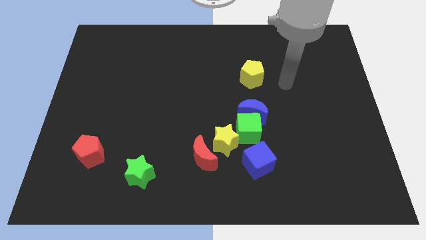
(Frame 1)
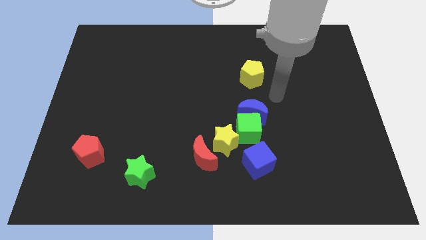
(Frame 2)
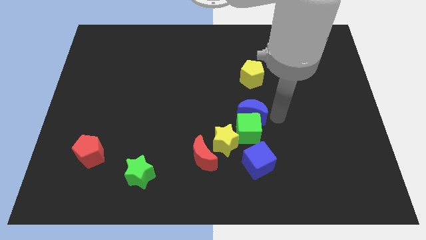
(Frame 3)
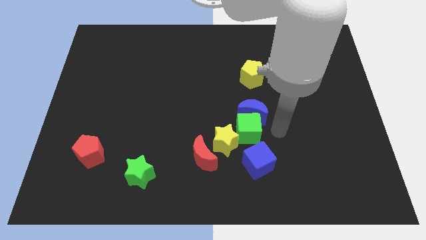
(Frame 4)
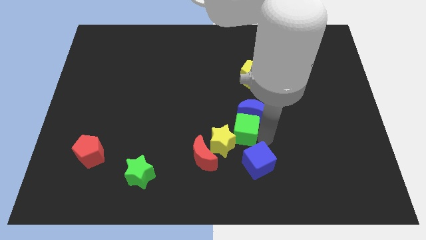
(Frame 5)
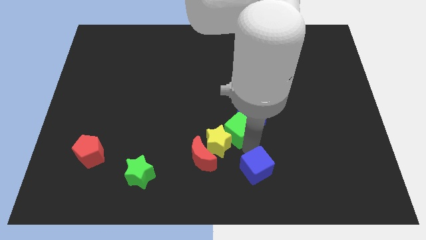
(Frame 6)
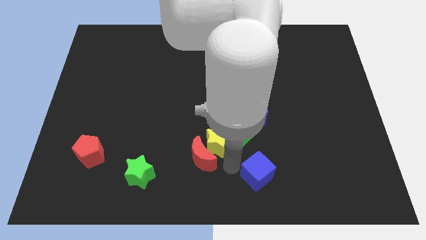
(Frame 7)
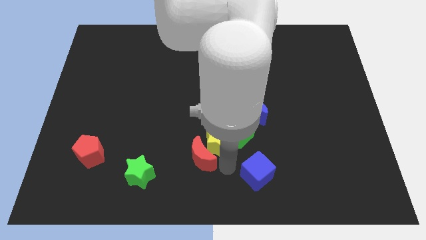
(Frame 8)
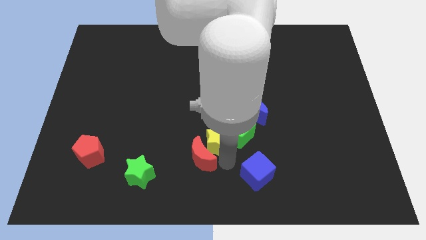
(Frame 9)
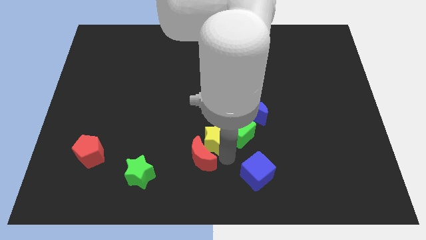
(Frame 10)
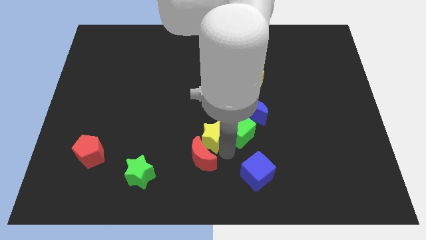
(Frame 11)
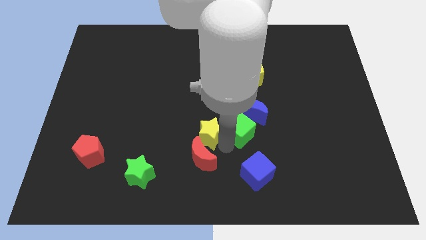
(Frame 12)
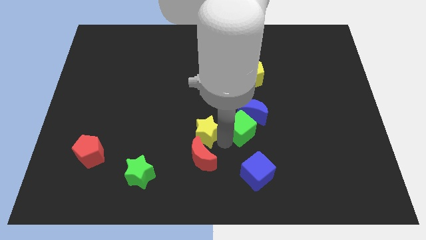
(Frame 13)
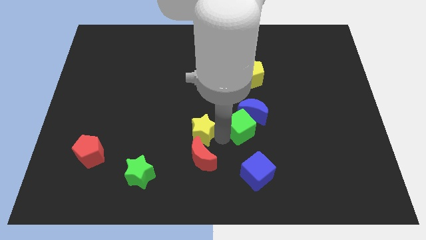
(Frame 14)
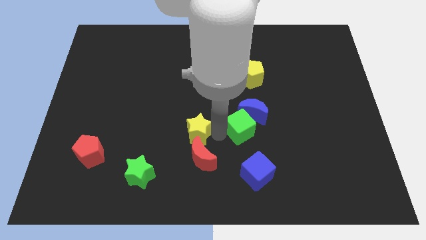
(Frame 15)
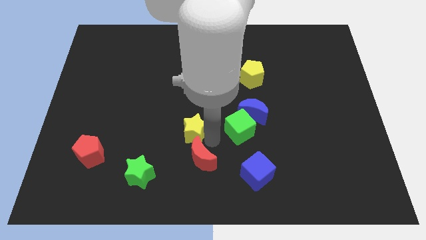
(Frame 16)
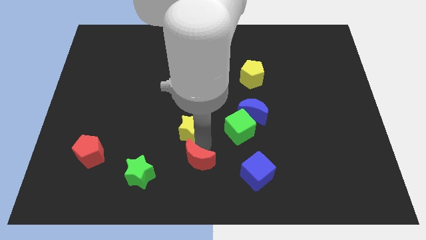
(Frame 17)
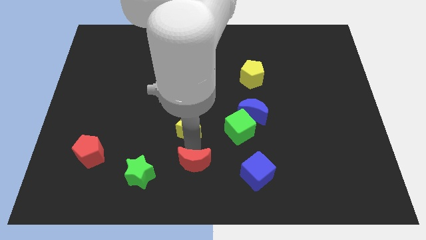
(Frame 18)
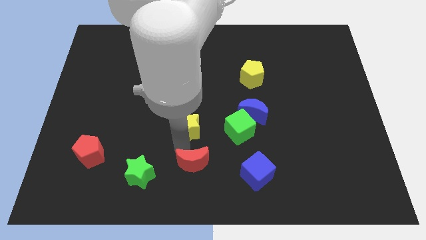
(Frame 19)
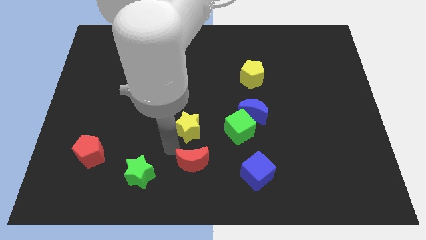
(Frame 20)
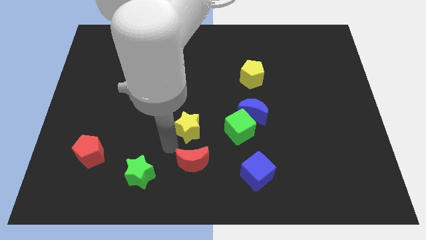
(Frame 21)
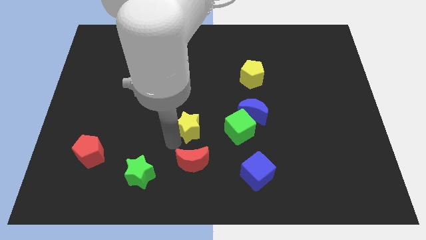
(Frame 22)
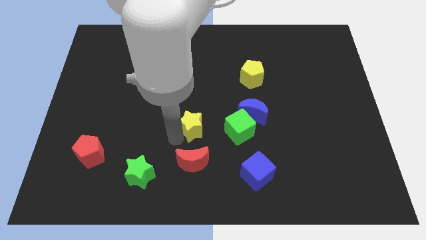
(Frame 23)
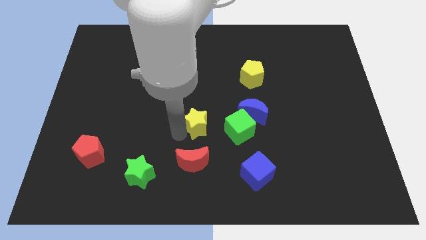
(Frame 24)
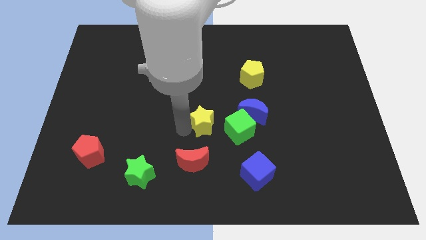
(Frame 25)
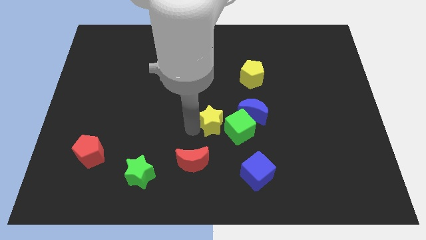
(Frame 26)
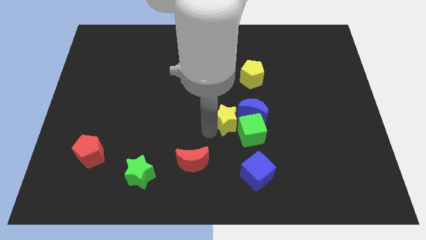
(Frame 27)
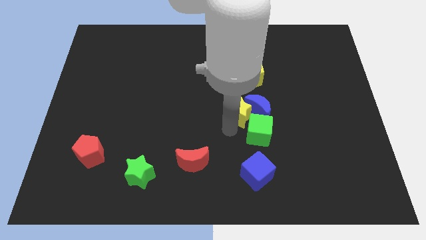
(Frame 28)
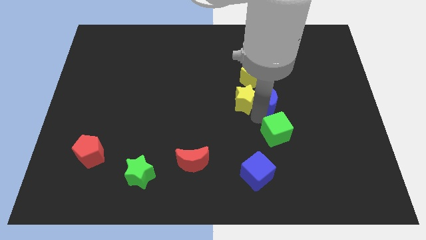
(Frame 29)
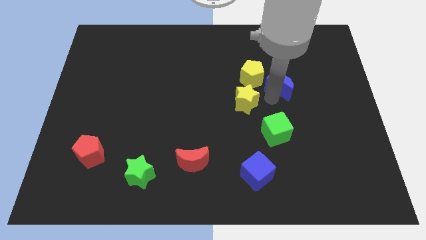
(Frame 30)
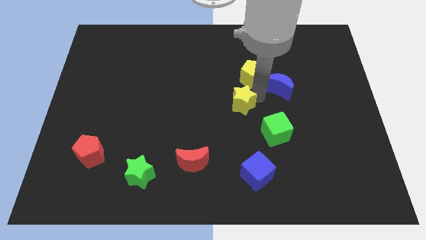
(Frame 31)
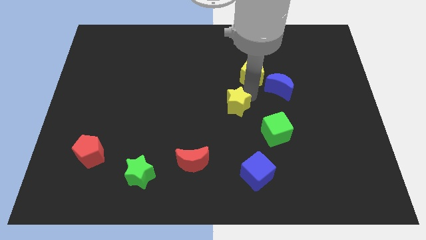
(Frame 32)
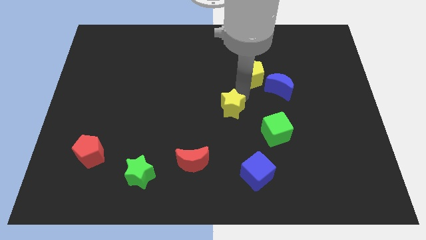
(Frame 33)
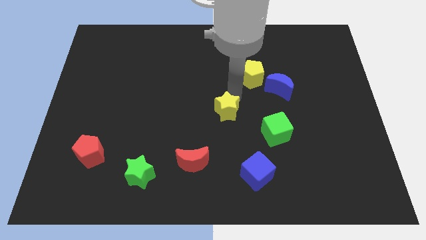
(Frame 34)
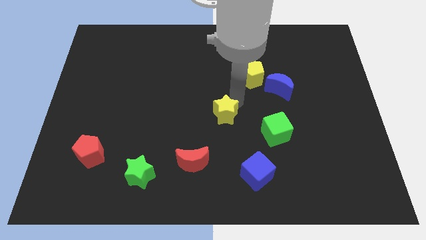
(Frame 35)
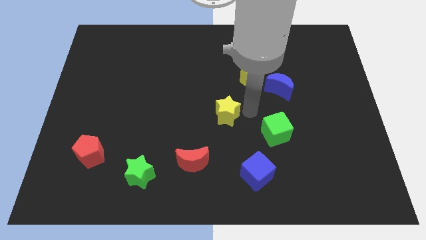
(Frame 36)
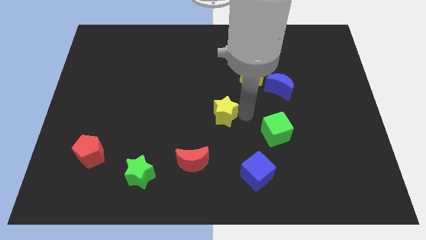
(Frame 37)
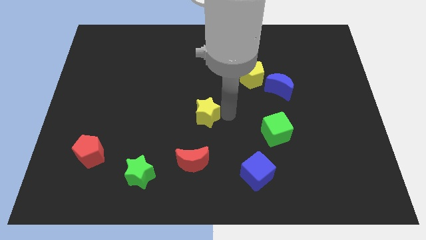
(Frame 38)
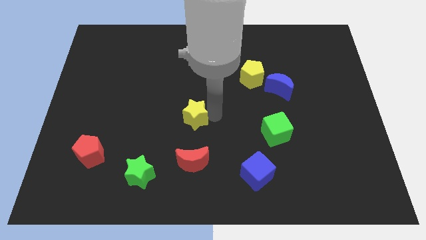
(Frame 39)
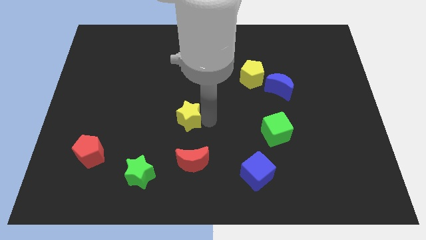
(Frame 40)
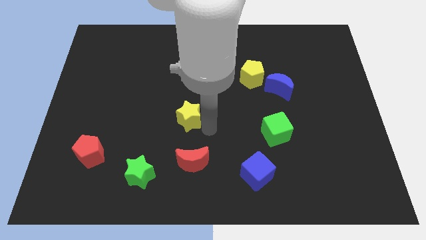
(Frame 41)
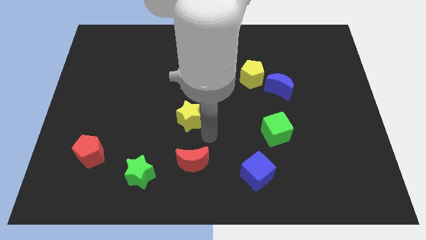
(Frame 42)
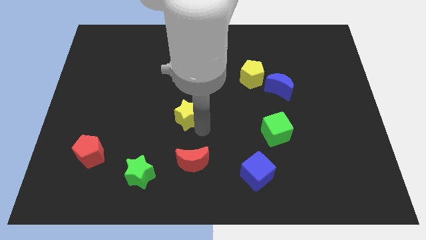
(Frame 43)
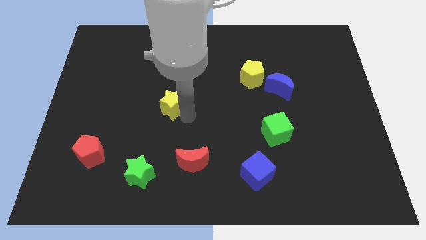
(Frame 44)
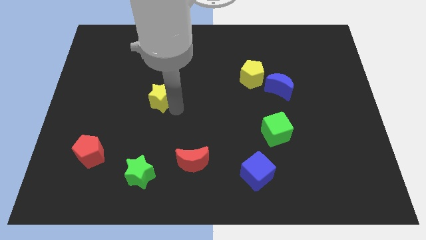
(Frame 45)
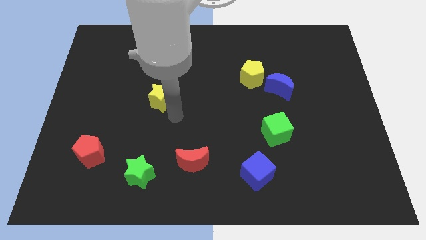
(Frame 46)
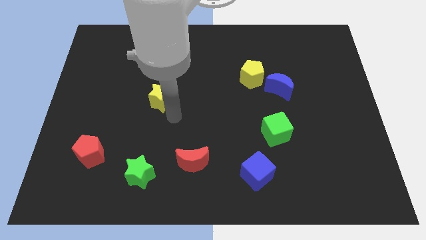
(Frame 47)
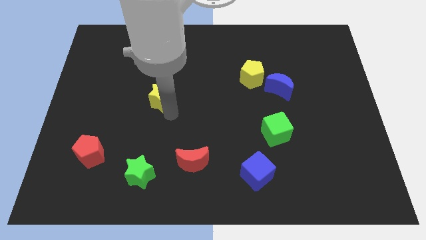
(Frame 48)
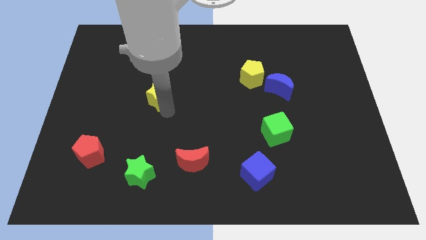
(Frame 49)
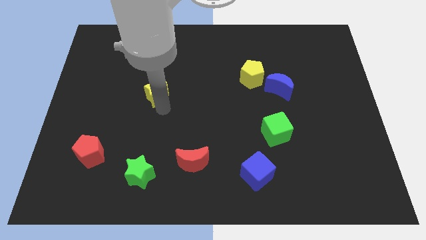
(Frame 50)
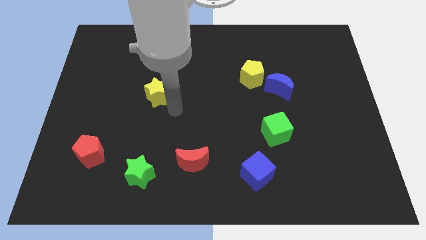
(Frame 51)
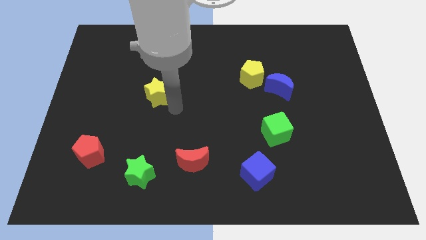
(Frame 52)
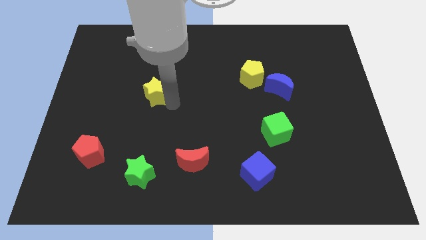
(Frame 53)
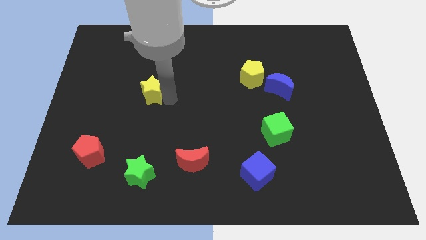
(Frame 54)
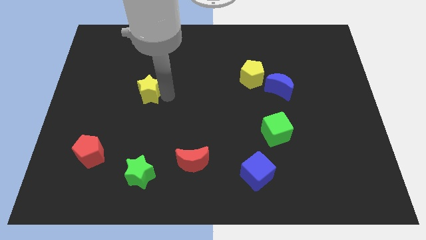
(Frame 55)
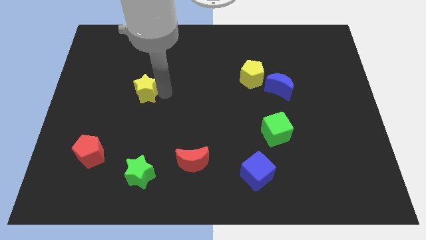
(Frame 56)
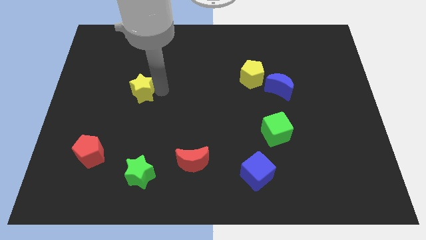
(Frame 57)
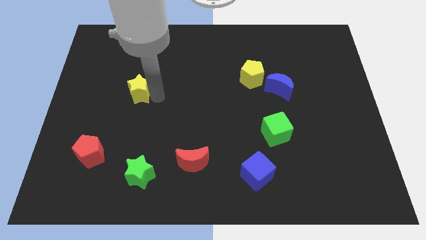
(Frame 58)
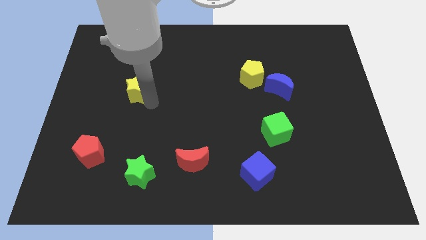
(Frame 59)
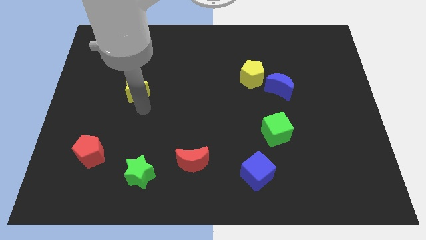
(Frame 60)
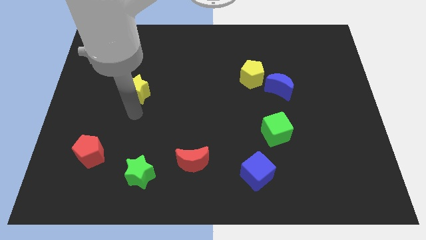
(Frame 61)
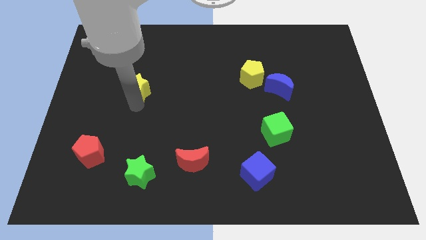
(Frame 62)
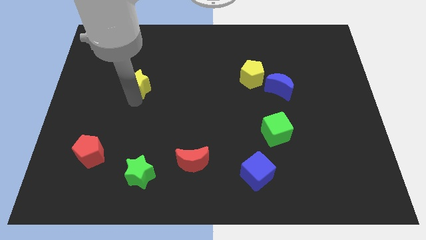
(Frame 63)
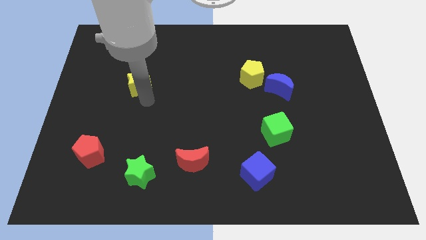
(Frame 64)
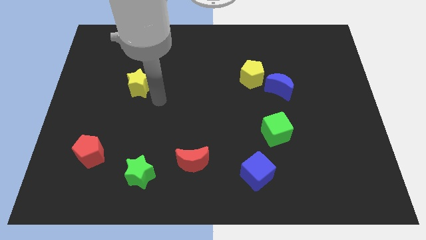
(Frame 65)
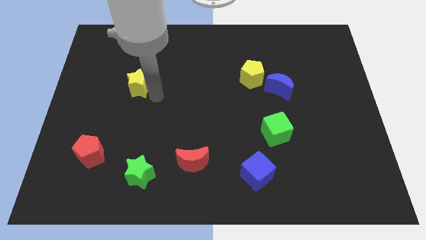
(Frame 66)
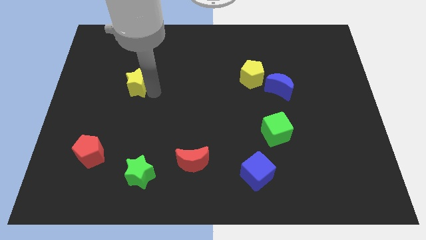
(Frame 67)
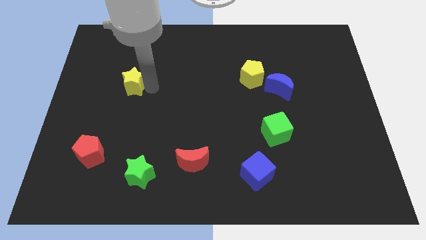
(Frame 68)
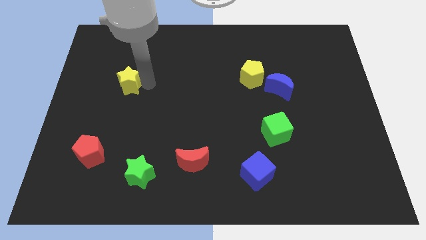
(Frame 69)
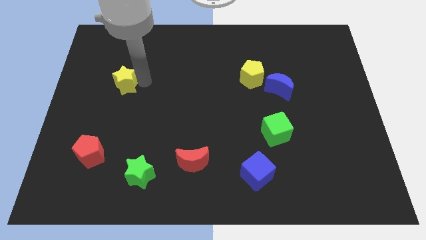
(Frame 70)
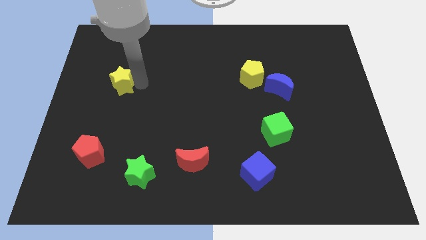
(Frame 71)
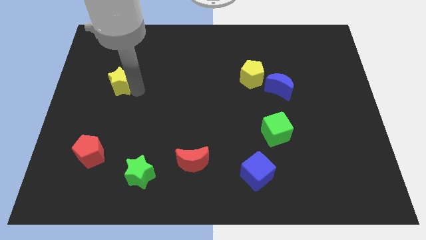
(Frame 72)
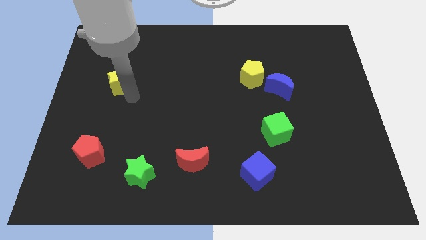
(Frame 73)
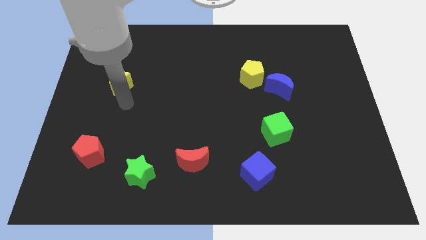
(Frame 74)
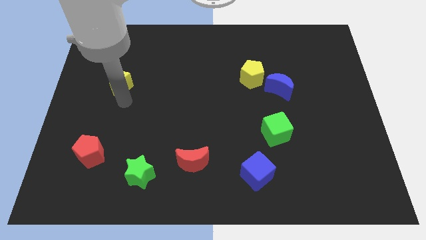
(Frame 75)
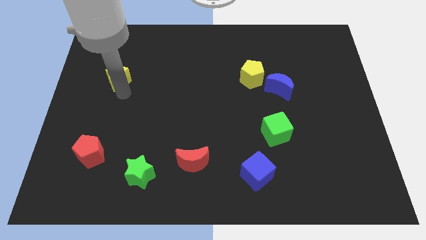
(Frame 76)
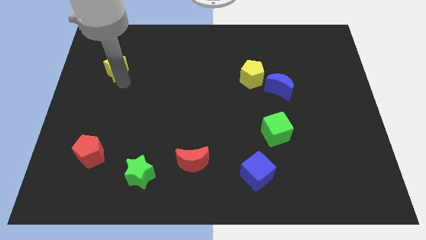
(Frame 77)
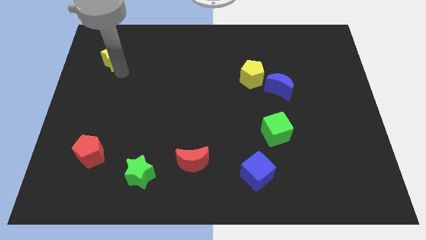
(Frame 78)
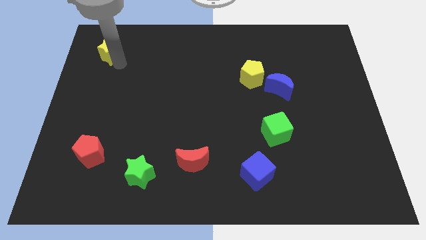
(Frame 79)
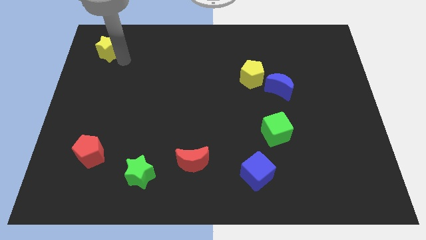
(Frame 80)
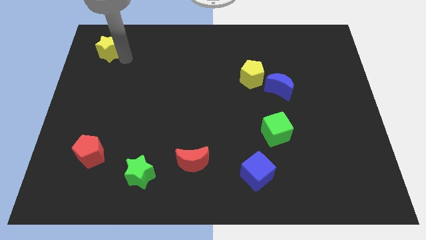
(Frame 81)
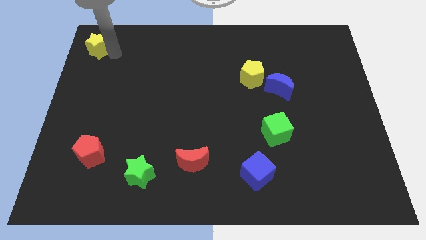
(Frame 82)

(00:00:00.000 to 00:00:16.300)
move the yellow star to the top left
